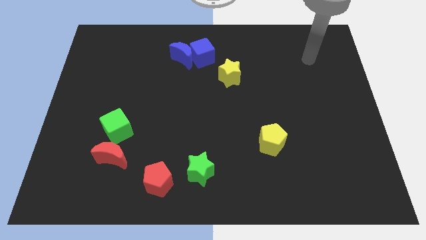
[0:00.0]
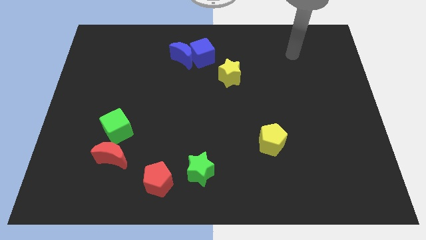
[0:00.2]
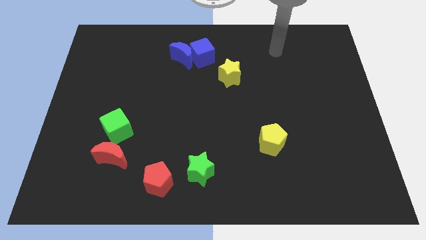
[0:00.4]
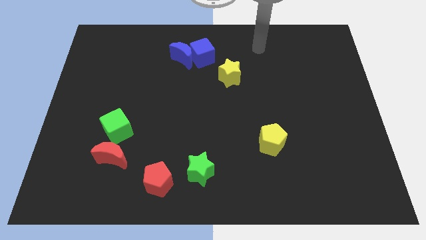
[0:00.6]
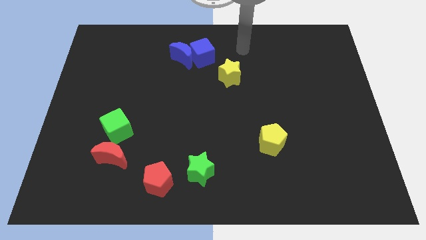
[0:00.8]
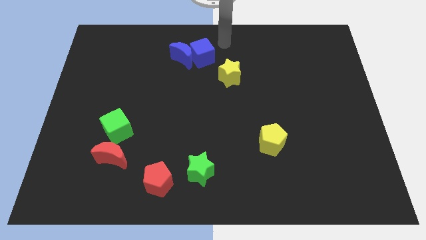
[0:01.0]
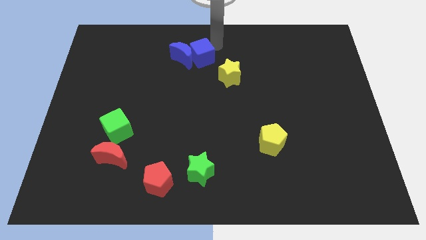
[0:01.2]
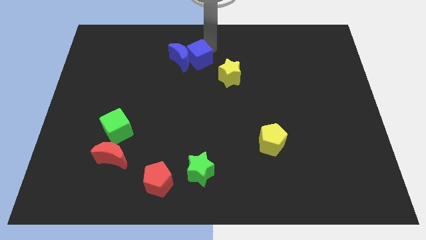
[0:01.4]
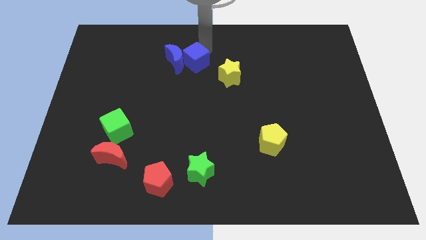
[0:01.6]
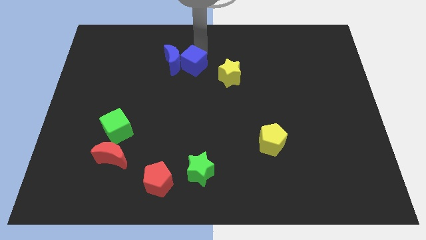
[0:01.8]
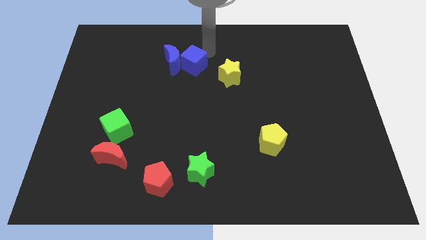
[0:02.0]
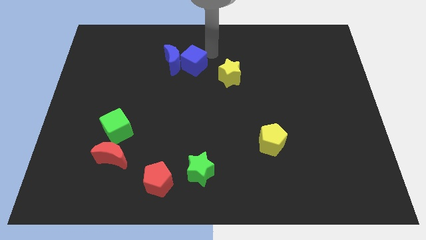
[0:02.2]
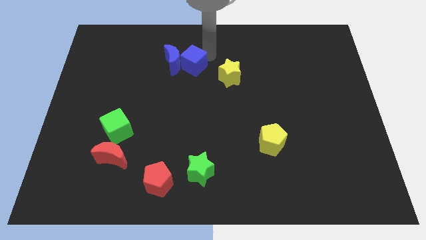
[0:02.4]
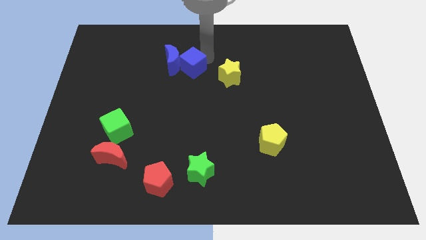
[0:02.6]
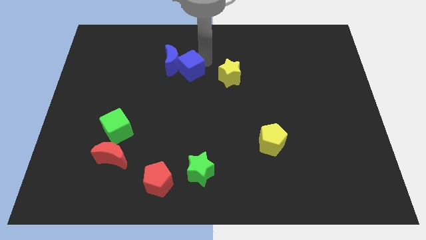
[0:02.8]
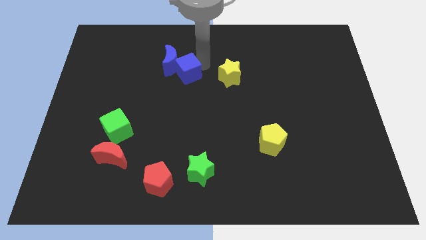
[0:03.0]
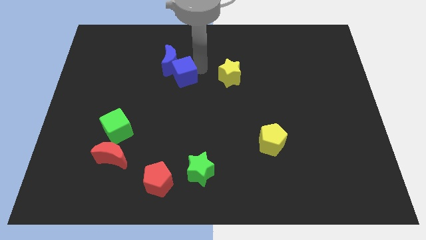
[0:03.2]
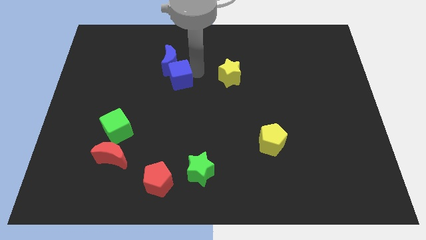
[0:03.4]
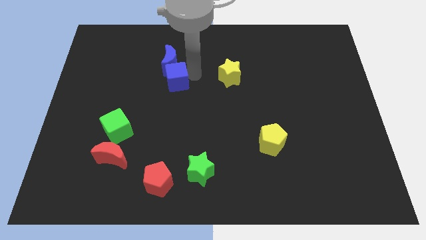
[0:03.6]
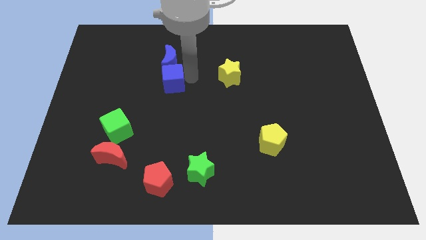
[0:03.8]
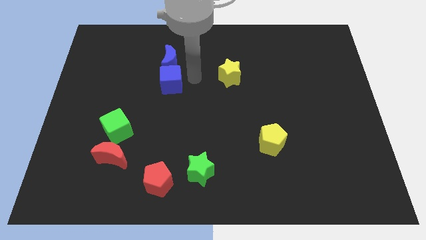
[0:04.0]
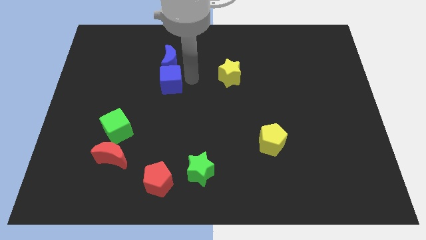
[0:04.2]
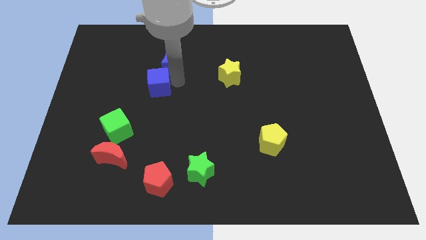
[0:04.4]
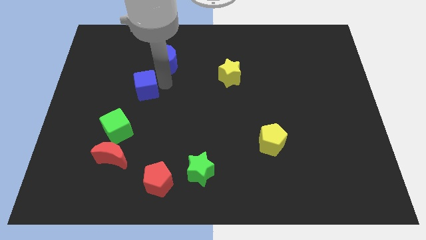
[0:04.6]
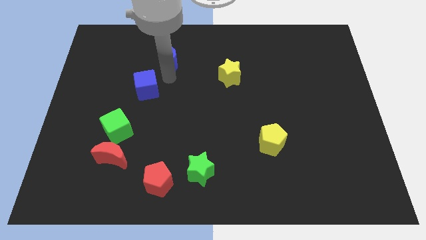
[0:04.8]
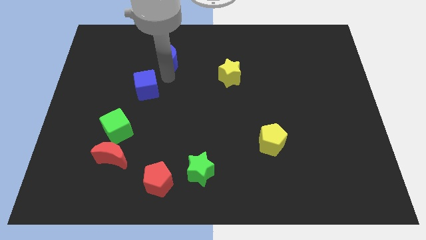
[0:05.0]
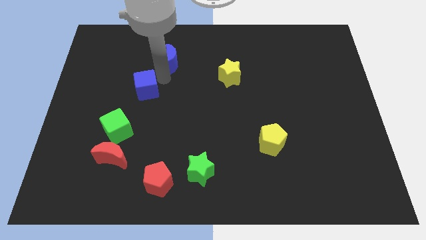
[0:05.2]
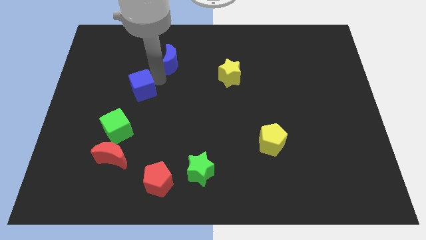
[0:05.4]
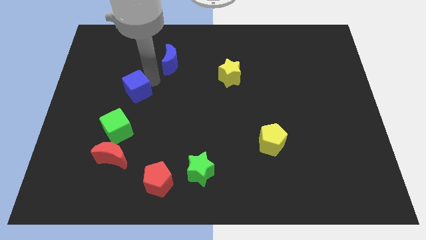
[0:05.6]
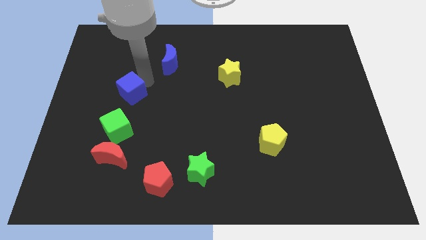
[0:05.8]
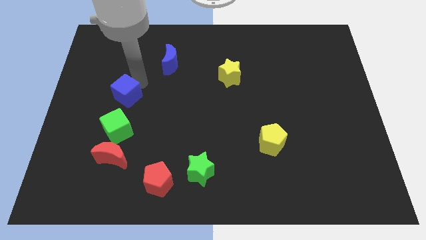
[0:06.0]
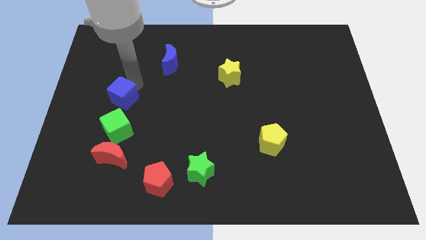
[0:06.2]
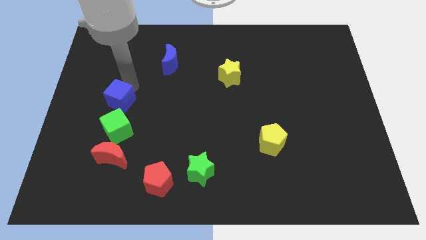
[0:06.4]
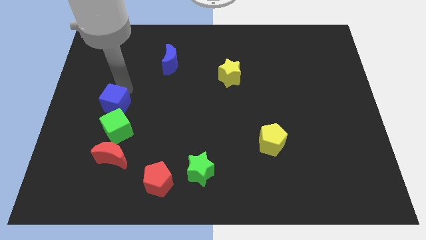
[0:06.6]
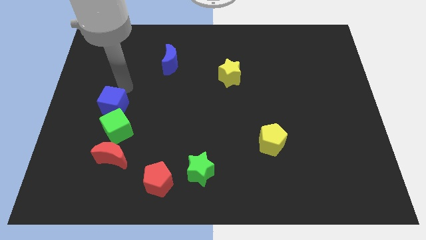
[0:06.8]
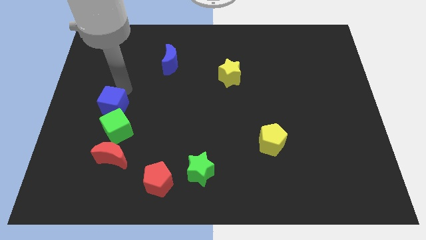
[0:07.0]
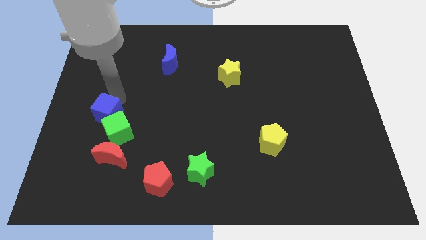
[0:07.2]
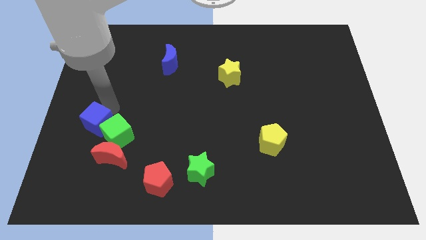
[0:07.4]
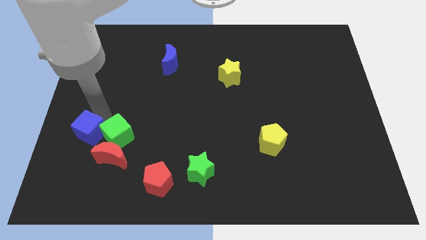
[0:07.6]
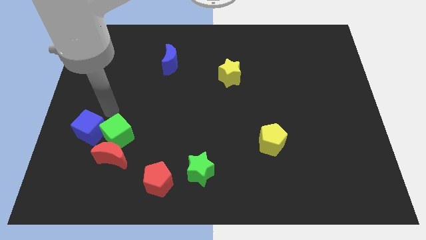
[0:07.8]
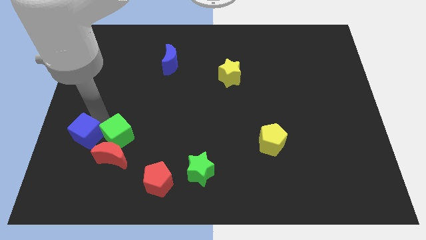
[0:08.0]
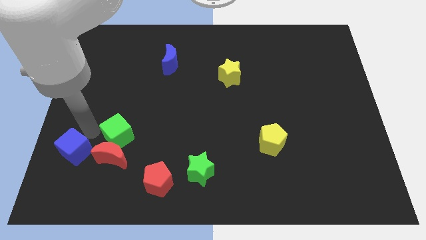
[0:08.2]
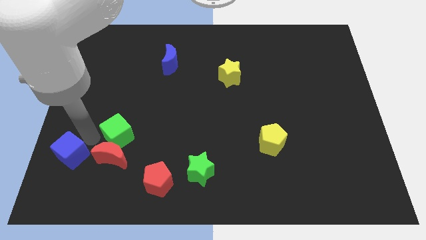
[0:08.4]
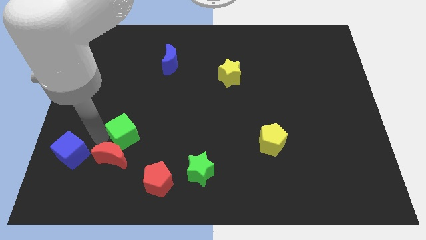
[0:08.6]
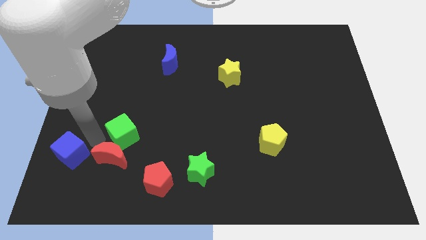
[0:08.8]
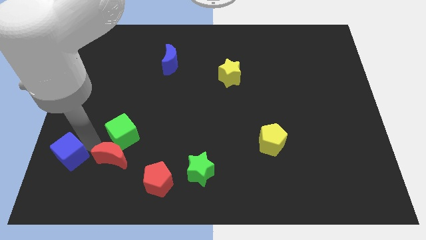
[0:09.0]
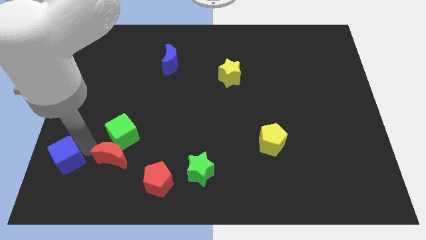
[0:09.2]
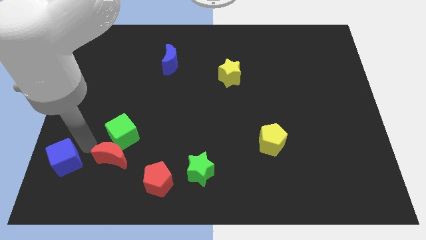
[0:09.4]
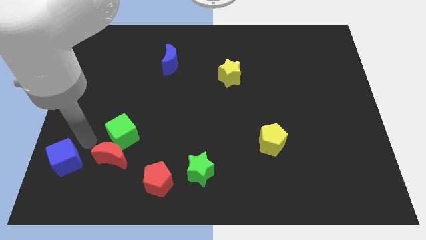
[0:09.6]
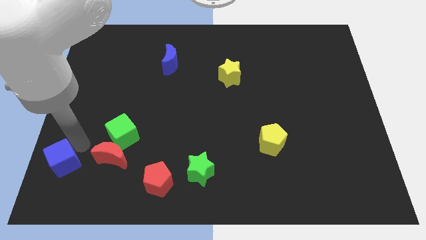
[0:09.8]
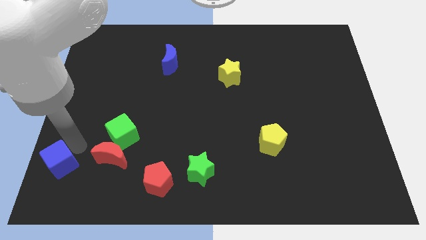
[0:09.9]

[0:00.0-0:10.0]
put the blue cube to the lower left corner

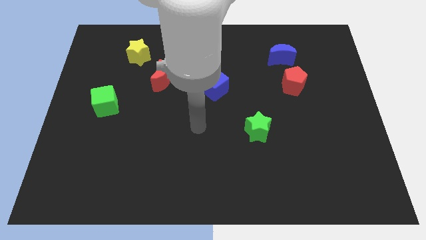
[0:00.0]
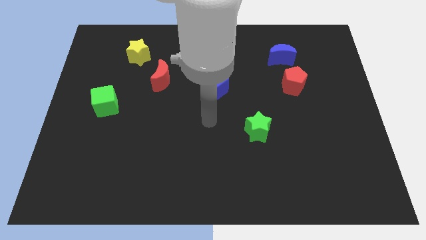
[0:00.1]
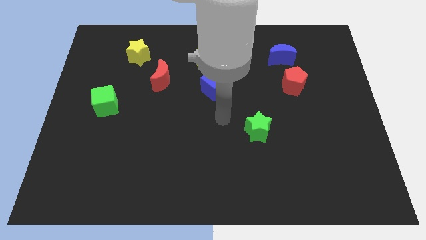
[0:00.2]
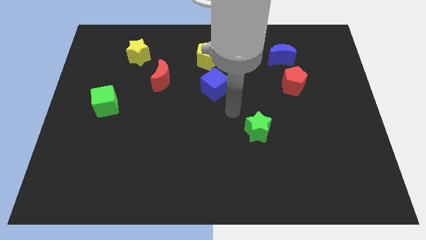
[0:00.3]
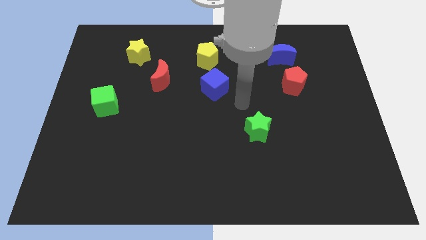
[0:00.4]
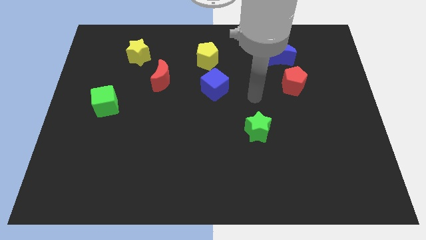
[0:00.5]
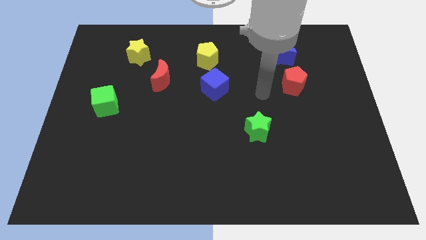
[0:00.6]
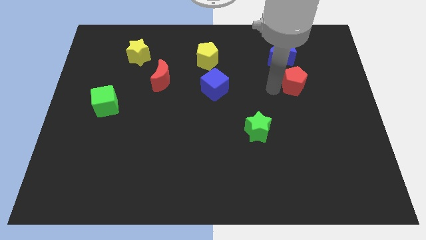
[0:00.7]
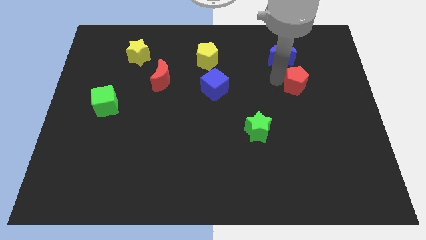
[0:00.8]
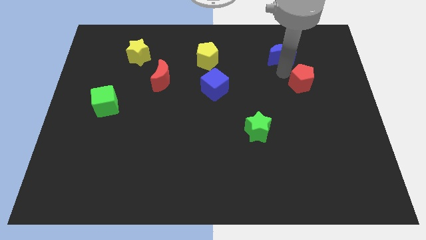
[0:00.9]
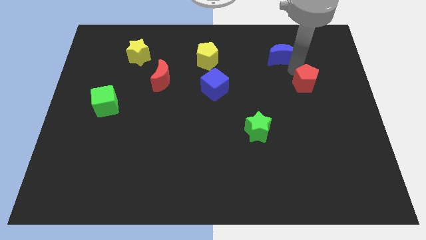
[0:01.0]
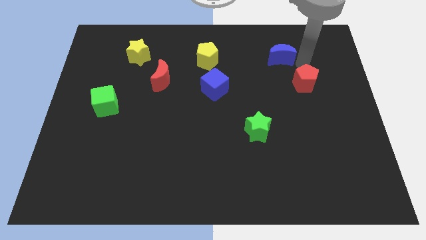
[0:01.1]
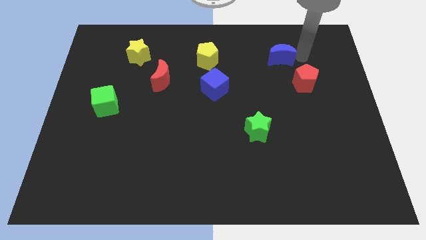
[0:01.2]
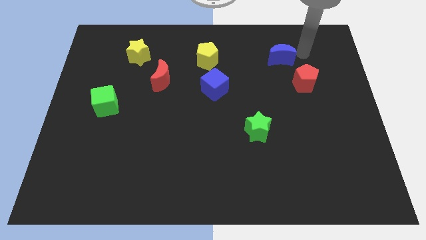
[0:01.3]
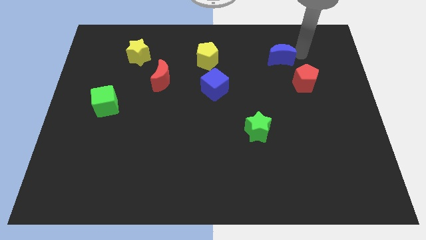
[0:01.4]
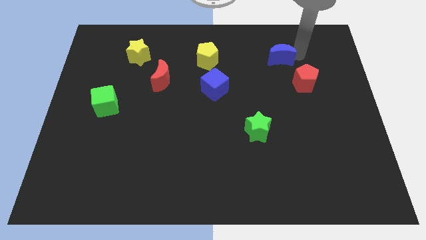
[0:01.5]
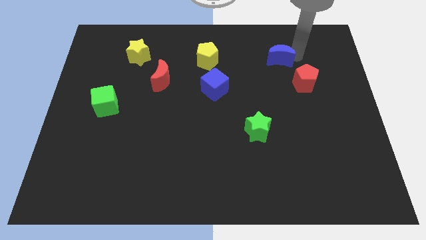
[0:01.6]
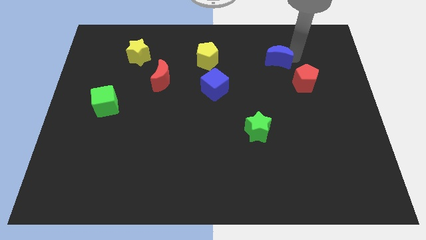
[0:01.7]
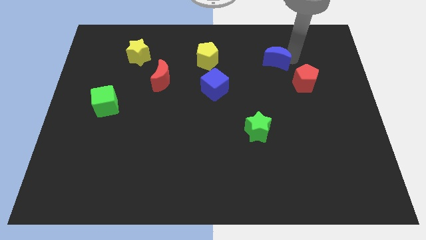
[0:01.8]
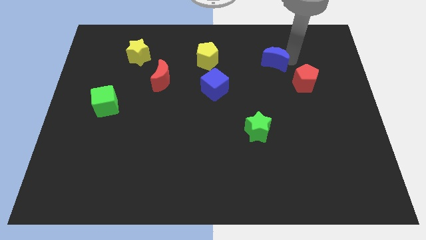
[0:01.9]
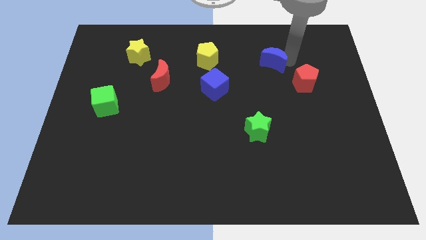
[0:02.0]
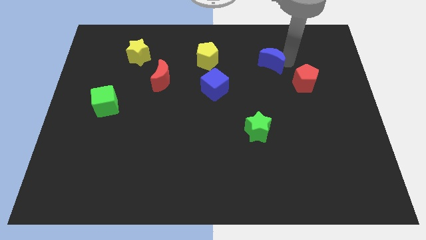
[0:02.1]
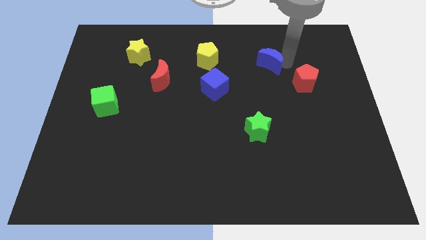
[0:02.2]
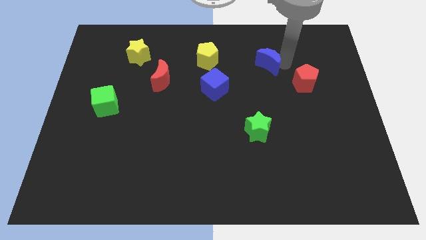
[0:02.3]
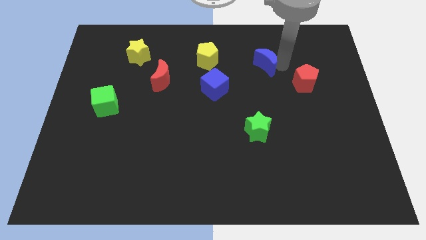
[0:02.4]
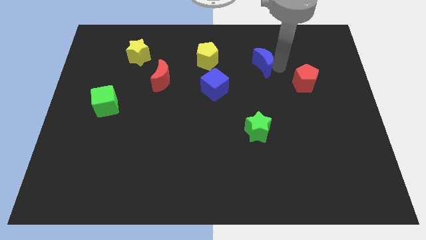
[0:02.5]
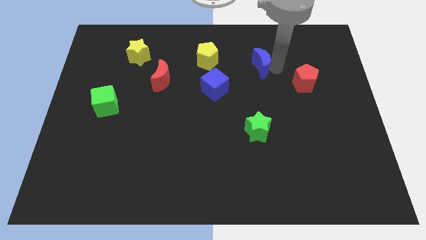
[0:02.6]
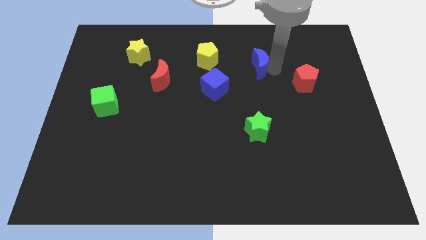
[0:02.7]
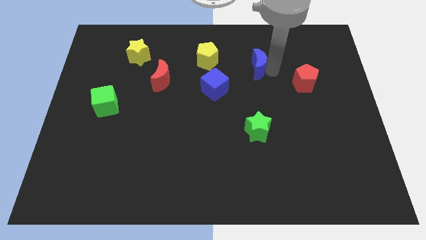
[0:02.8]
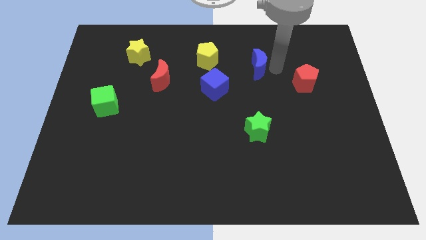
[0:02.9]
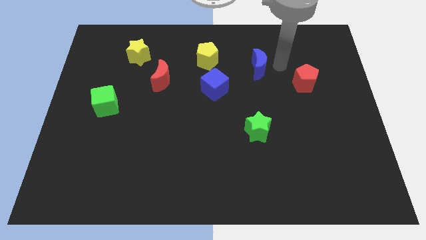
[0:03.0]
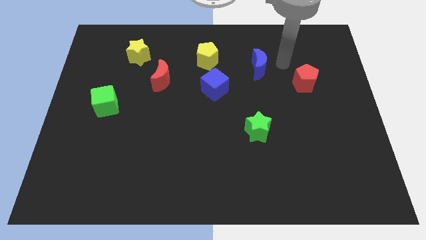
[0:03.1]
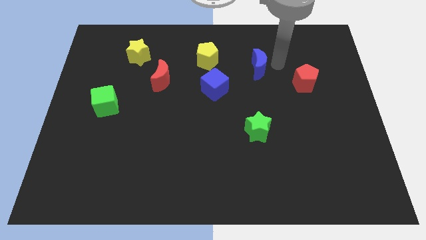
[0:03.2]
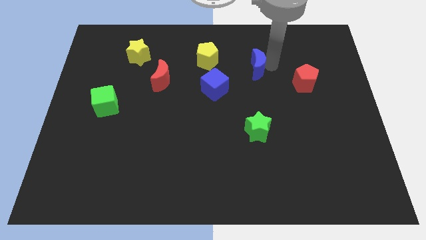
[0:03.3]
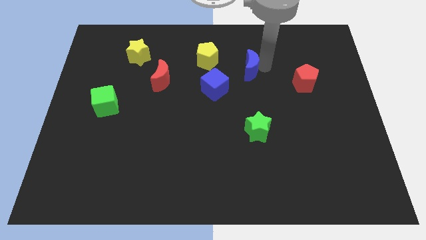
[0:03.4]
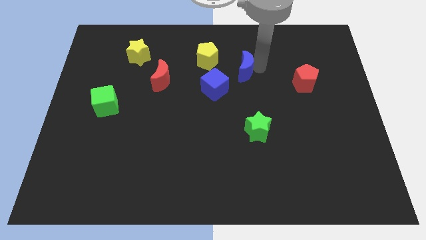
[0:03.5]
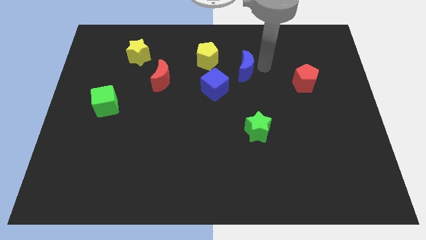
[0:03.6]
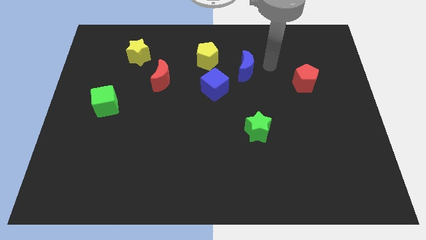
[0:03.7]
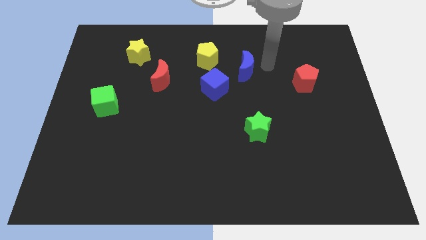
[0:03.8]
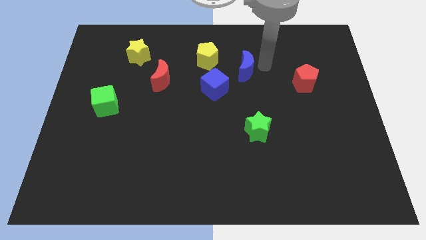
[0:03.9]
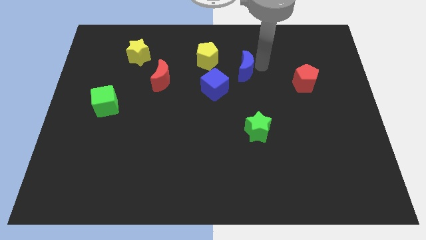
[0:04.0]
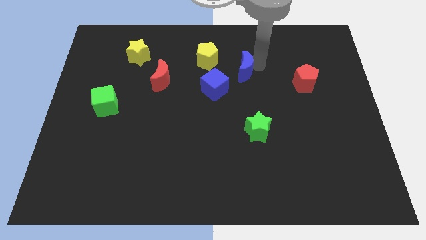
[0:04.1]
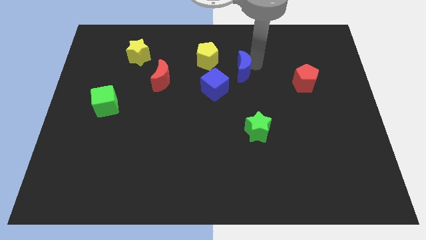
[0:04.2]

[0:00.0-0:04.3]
put the blue moon to the middle of the board
